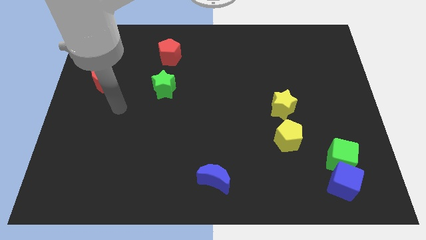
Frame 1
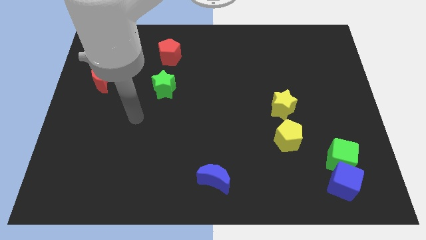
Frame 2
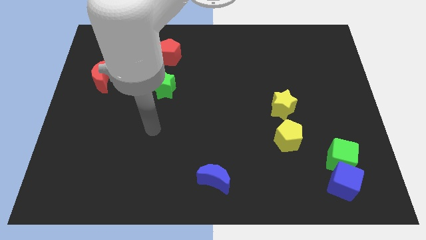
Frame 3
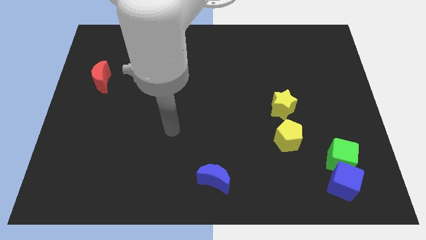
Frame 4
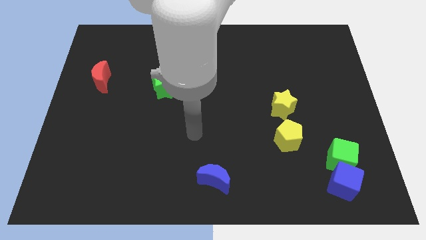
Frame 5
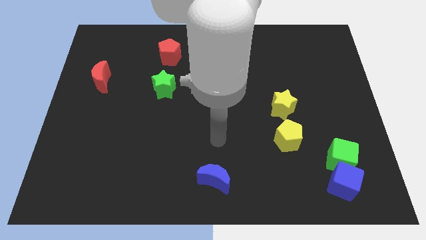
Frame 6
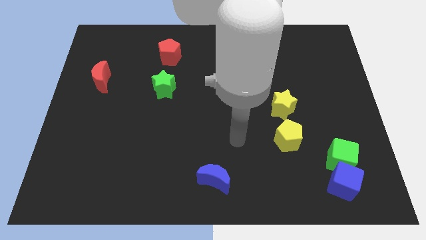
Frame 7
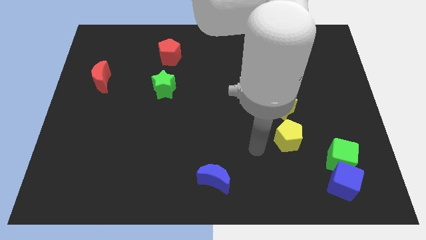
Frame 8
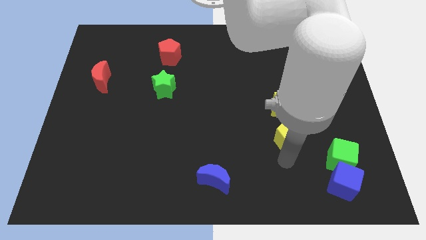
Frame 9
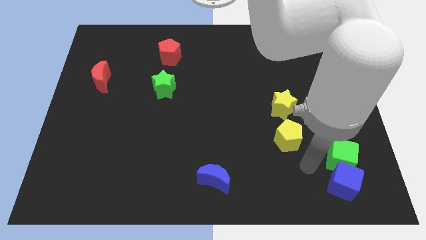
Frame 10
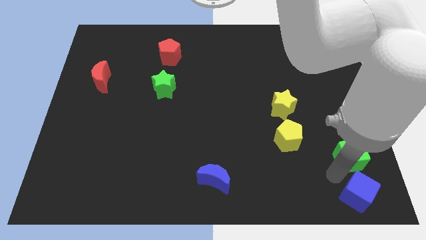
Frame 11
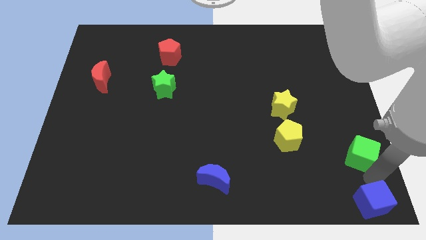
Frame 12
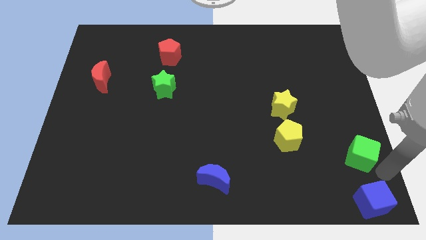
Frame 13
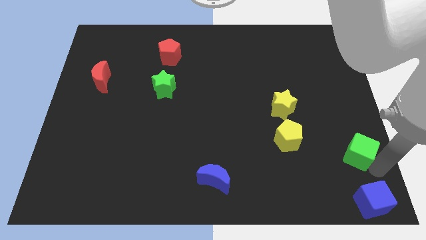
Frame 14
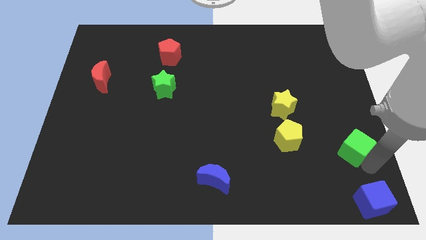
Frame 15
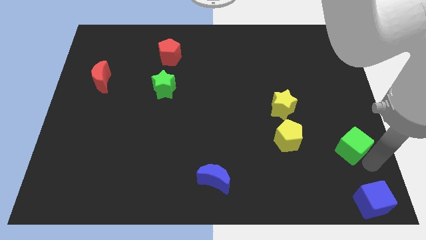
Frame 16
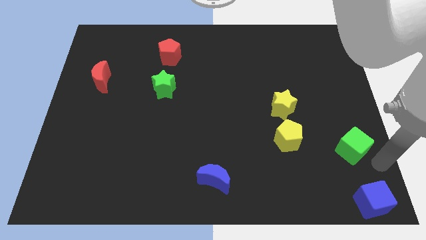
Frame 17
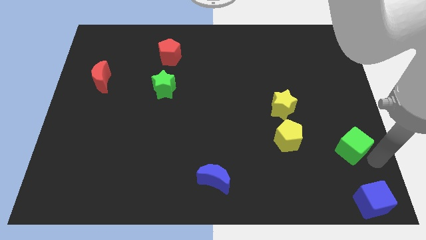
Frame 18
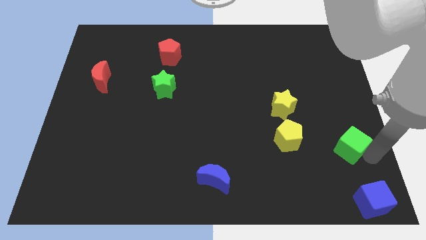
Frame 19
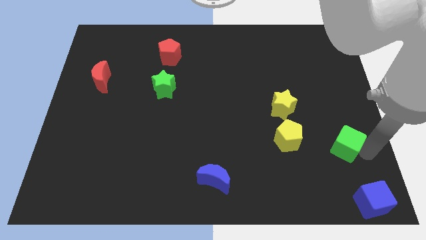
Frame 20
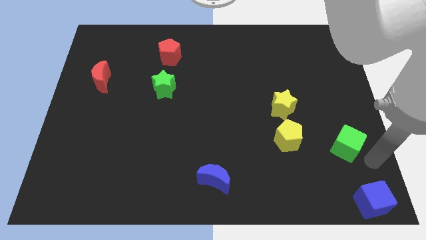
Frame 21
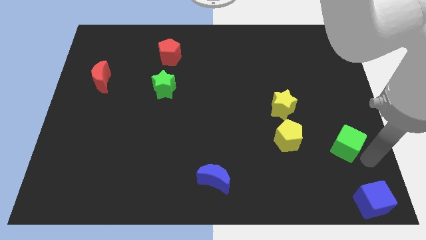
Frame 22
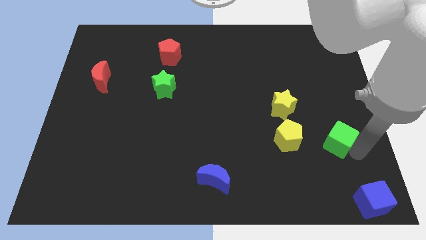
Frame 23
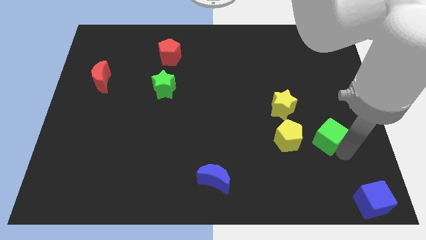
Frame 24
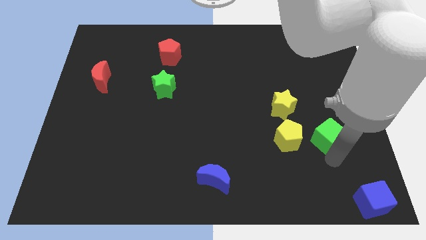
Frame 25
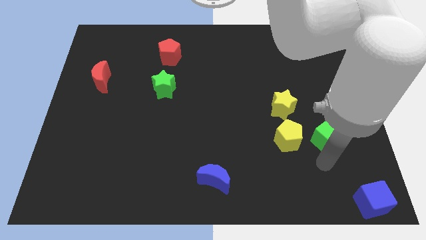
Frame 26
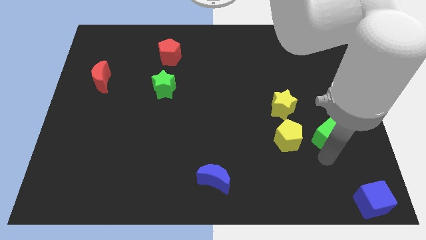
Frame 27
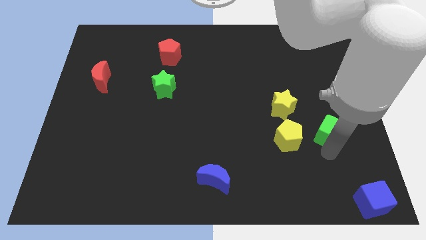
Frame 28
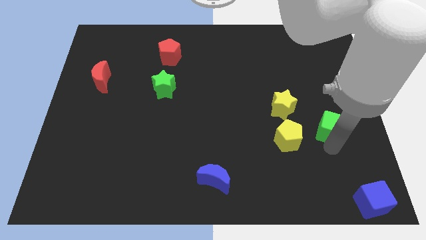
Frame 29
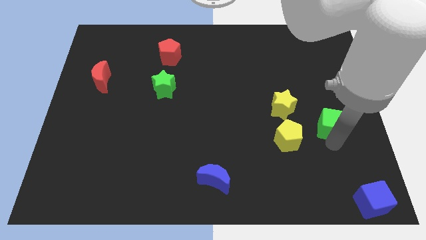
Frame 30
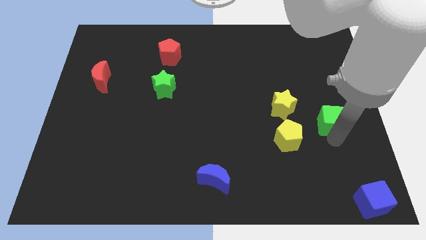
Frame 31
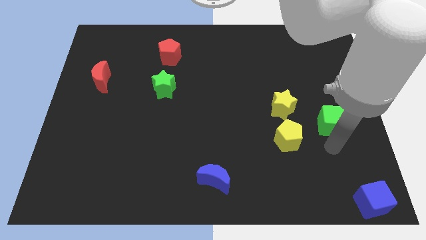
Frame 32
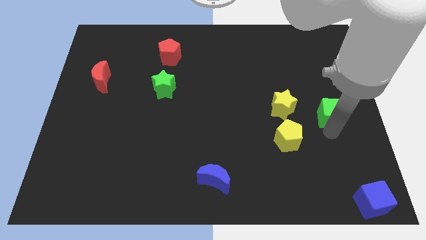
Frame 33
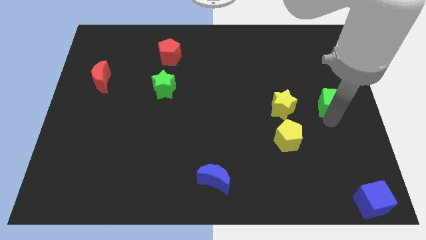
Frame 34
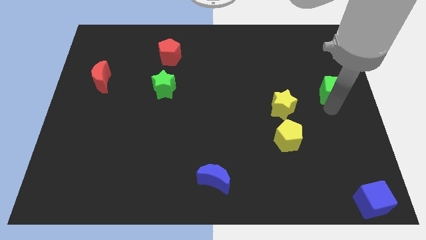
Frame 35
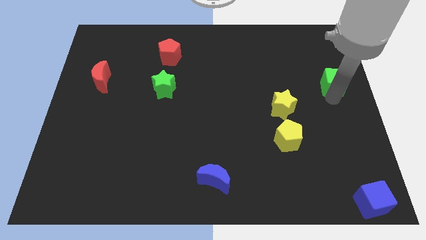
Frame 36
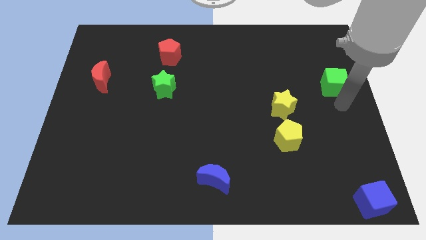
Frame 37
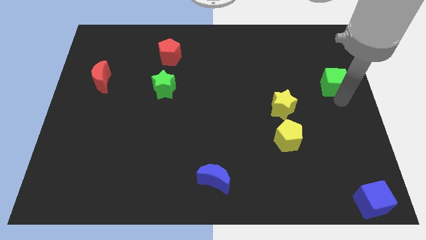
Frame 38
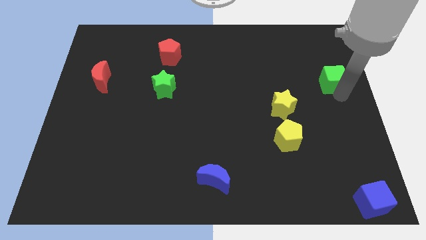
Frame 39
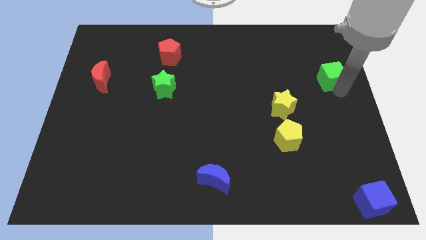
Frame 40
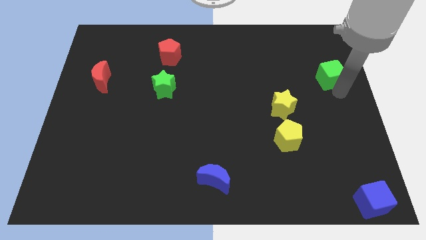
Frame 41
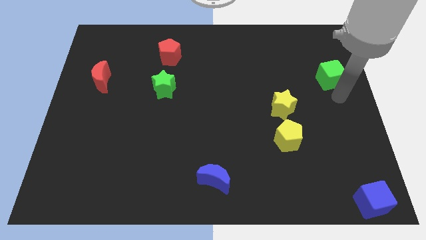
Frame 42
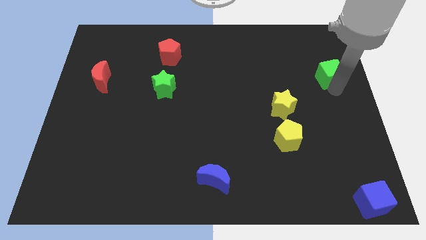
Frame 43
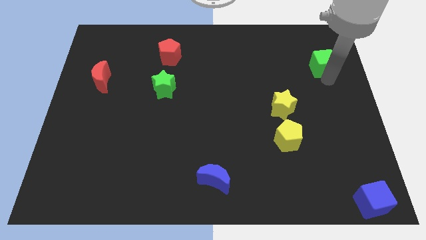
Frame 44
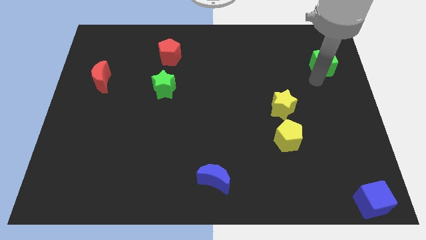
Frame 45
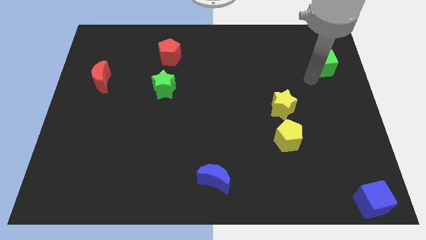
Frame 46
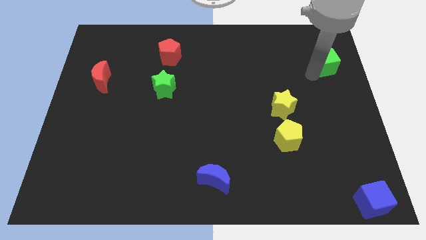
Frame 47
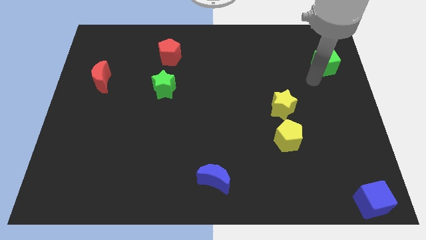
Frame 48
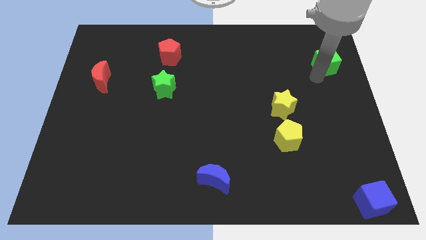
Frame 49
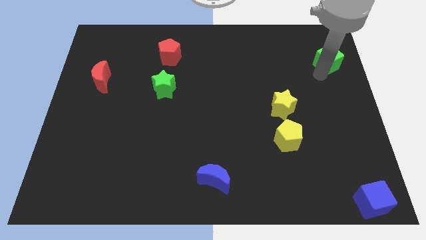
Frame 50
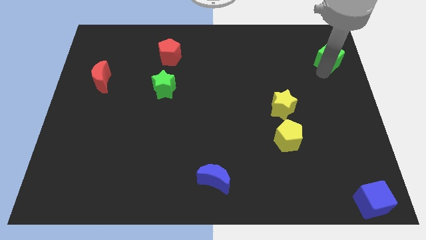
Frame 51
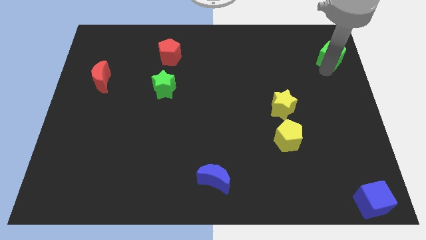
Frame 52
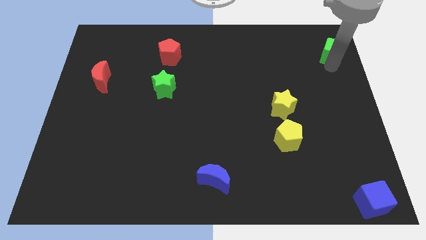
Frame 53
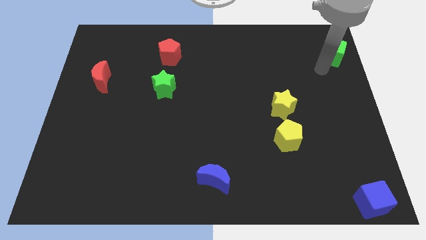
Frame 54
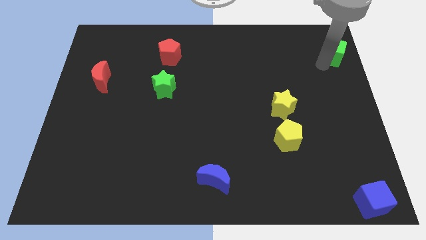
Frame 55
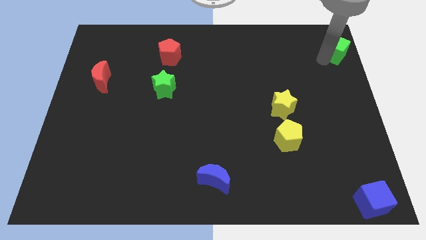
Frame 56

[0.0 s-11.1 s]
put the green cube to the top right corner

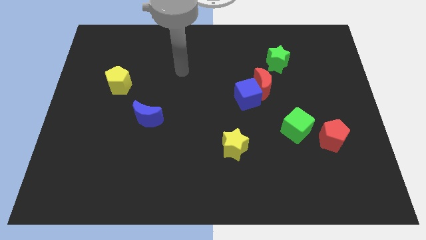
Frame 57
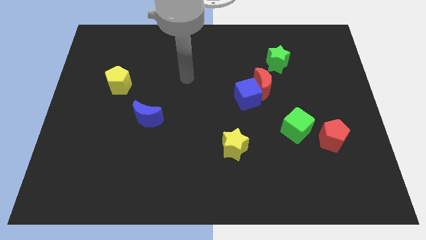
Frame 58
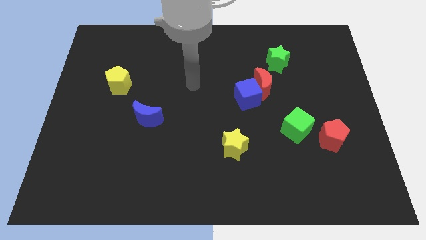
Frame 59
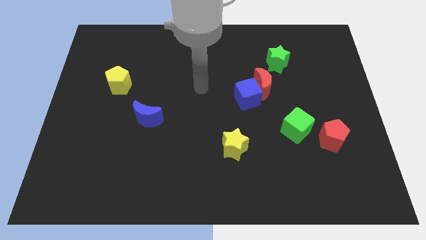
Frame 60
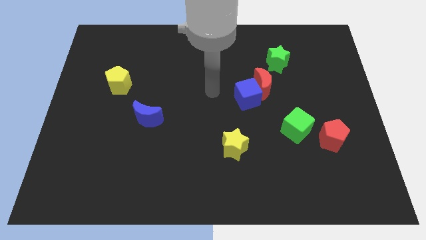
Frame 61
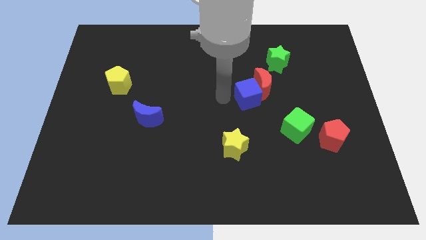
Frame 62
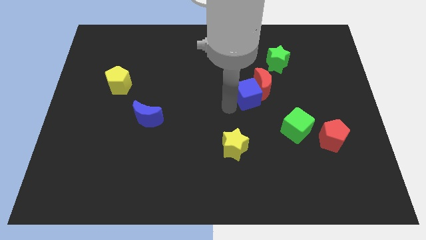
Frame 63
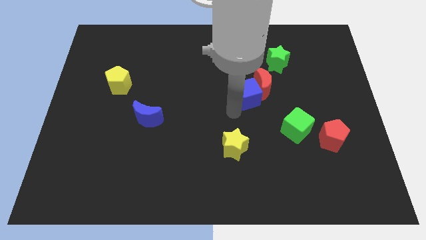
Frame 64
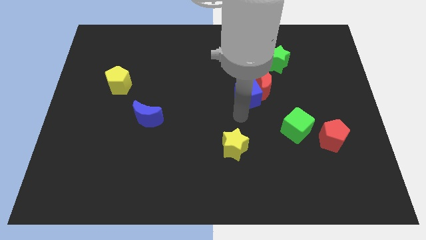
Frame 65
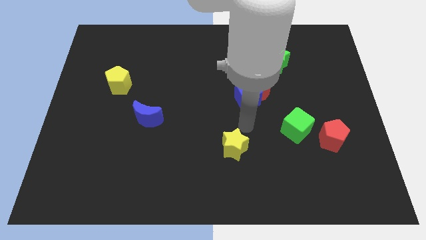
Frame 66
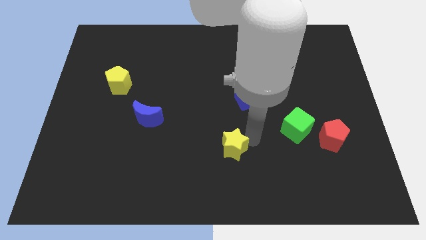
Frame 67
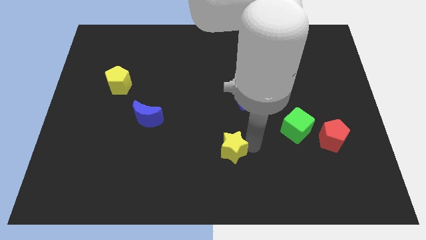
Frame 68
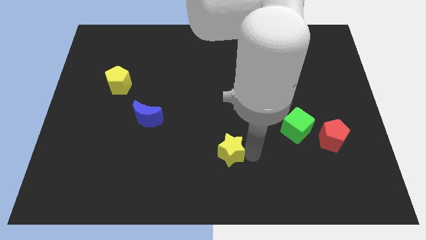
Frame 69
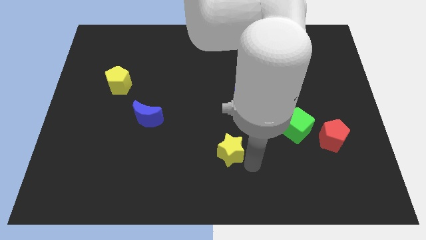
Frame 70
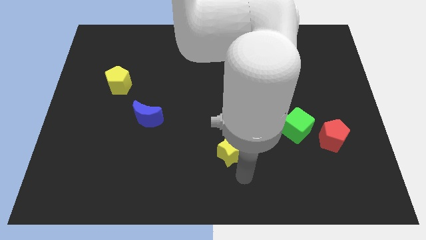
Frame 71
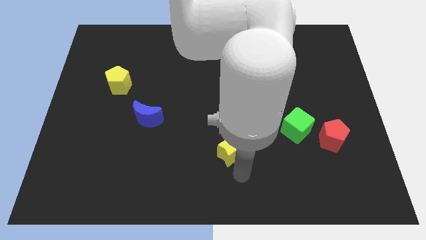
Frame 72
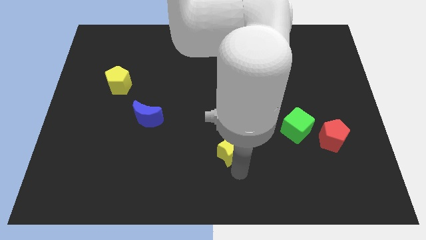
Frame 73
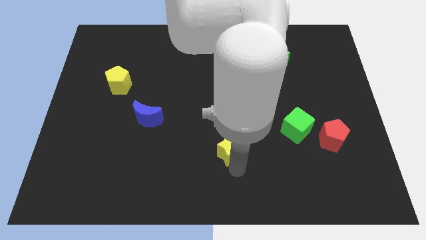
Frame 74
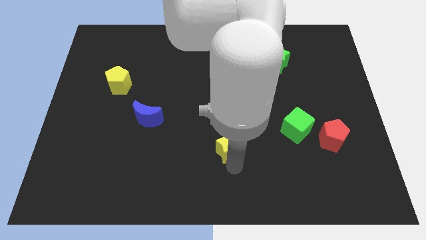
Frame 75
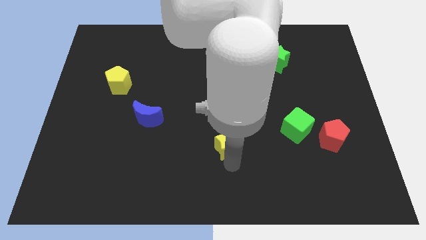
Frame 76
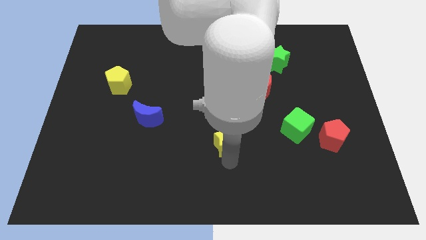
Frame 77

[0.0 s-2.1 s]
put the yellow star to the center
